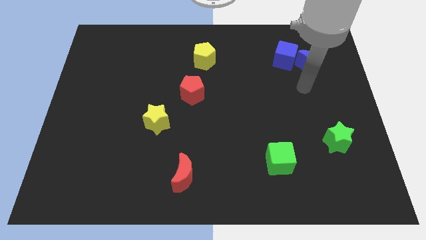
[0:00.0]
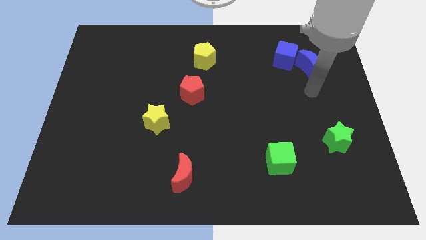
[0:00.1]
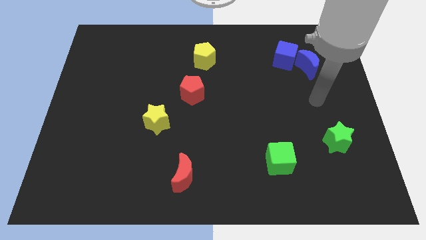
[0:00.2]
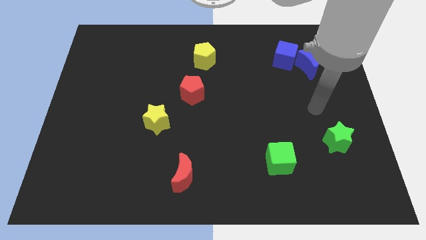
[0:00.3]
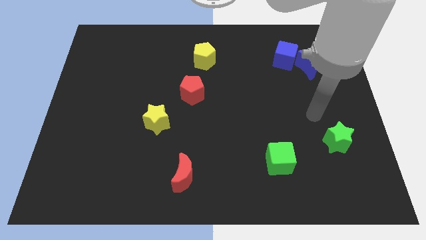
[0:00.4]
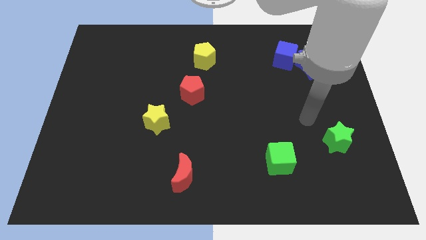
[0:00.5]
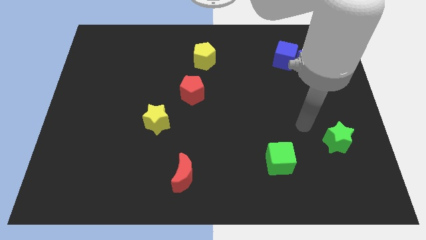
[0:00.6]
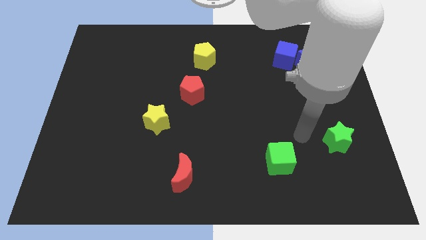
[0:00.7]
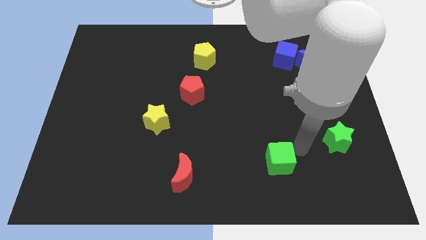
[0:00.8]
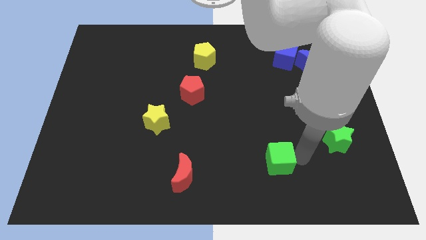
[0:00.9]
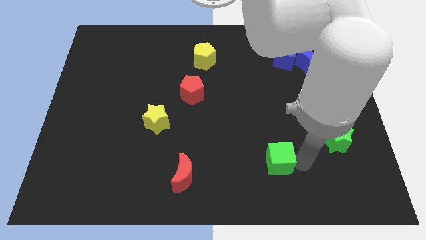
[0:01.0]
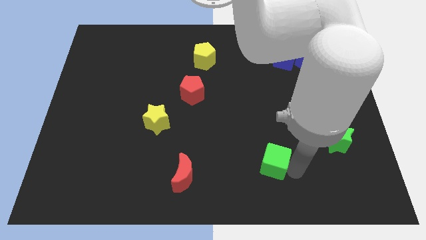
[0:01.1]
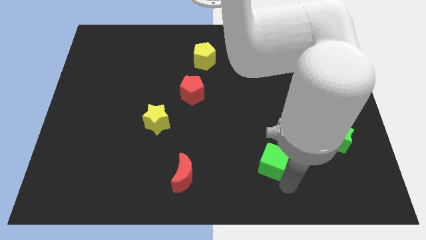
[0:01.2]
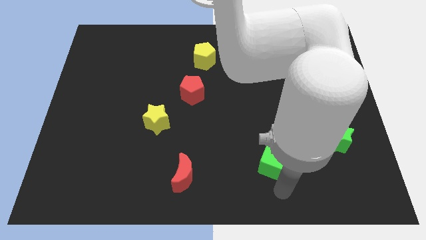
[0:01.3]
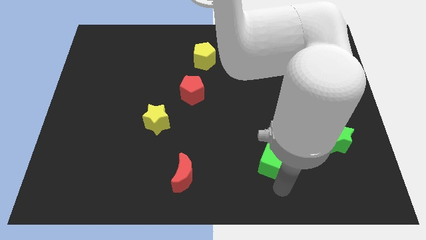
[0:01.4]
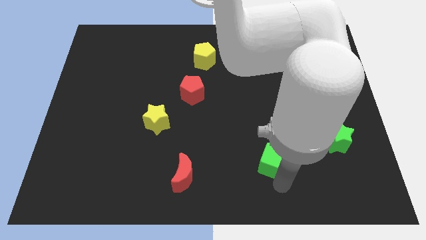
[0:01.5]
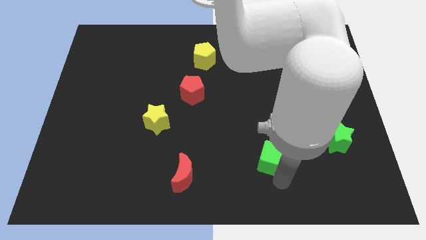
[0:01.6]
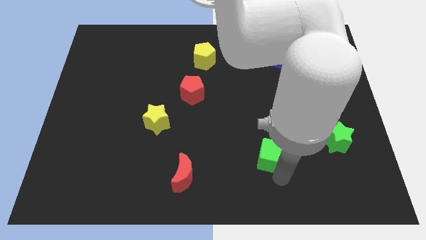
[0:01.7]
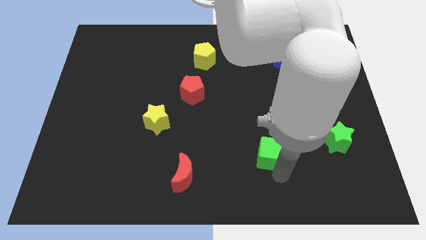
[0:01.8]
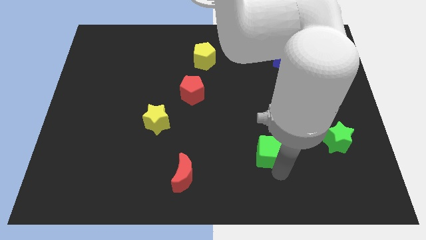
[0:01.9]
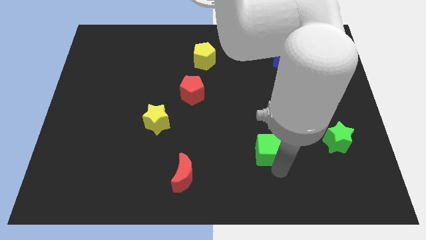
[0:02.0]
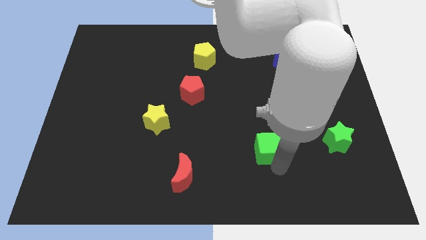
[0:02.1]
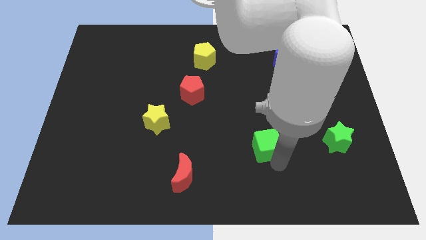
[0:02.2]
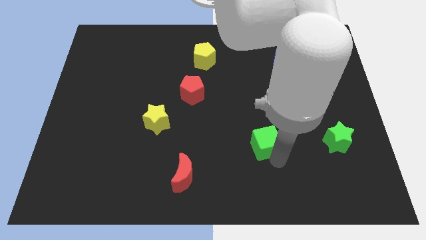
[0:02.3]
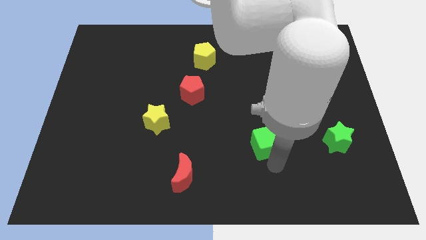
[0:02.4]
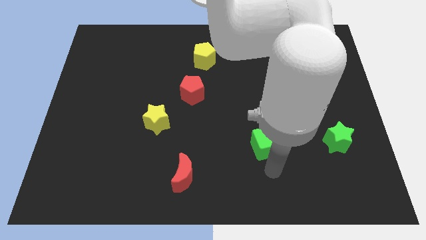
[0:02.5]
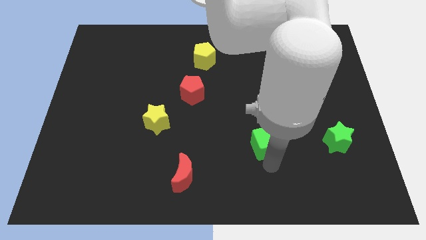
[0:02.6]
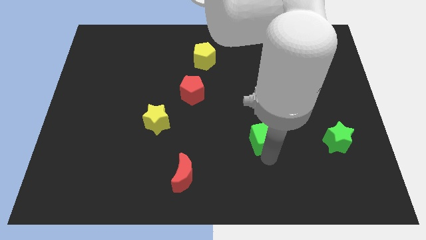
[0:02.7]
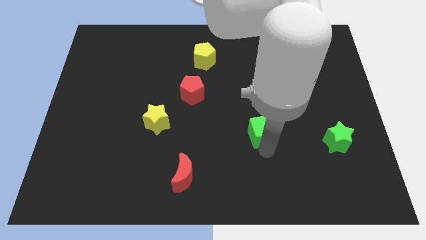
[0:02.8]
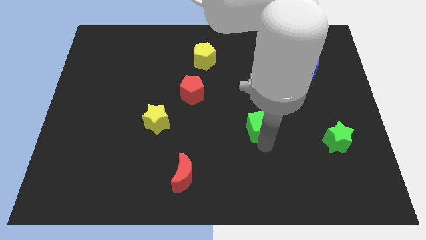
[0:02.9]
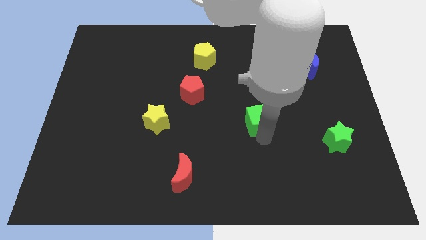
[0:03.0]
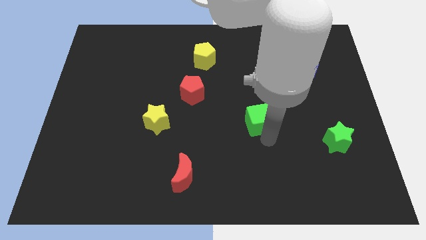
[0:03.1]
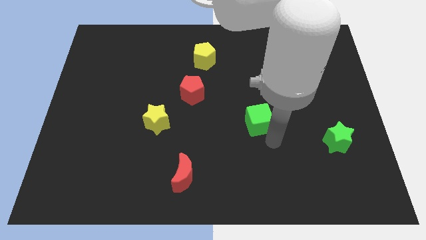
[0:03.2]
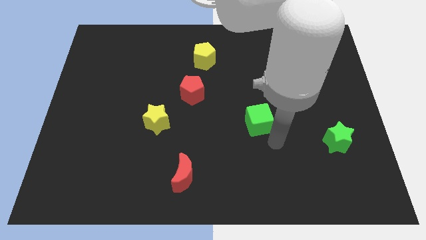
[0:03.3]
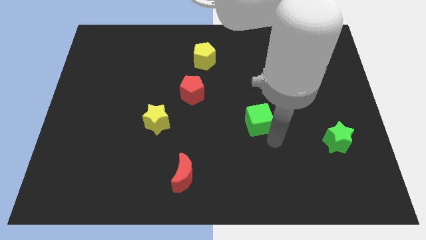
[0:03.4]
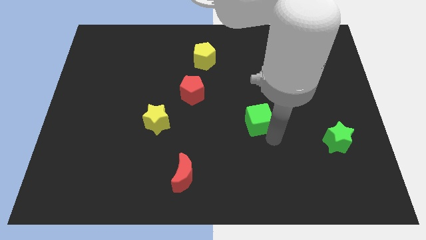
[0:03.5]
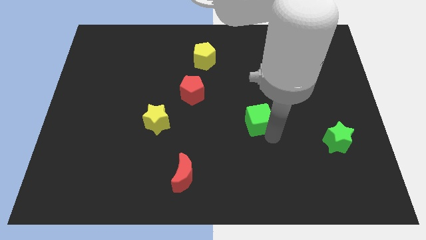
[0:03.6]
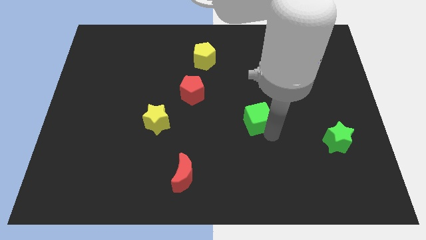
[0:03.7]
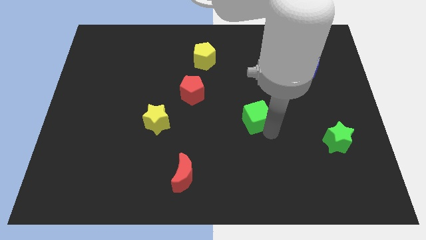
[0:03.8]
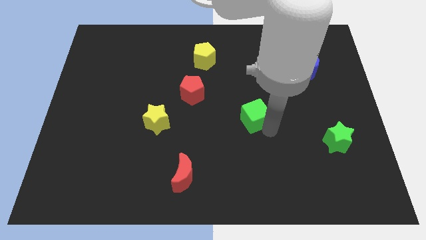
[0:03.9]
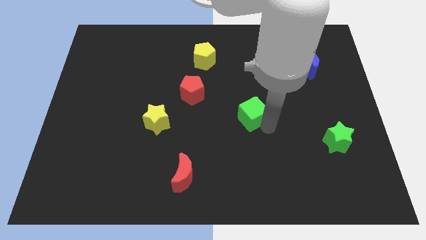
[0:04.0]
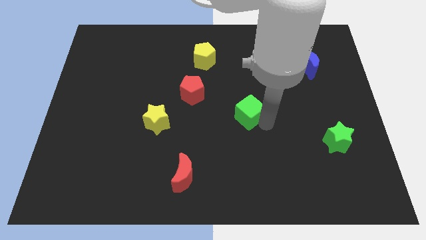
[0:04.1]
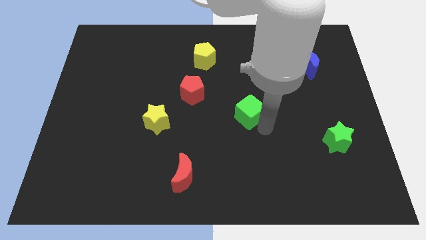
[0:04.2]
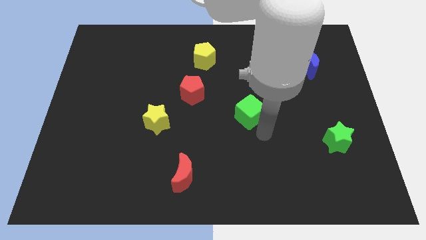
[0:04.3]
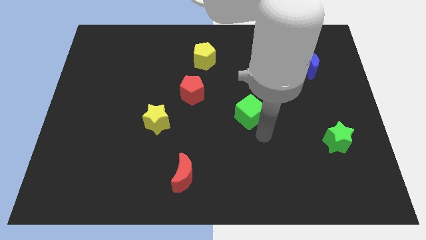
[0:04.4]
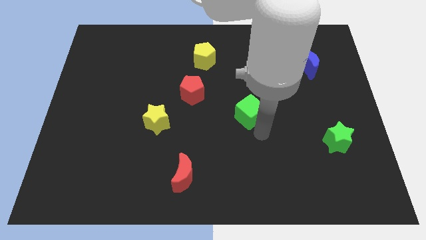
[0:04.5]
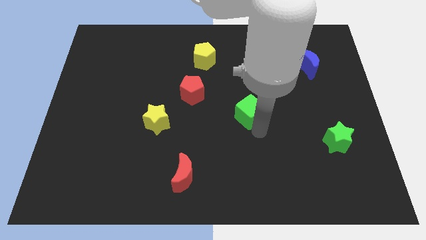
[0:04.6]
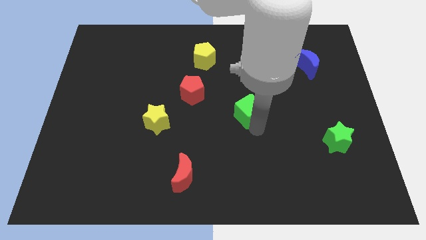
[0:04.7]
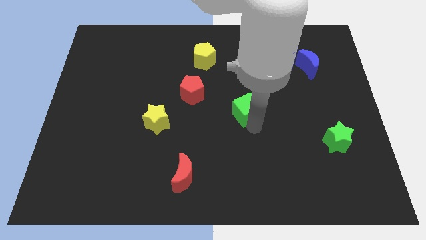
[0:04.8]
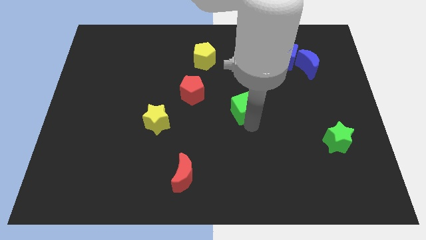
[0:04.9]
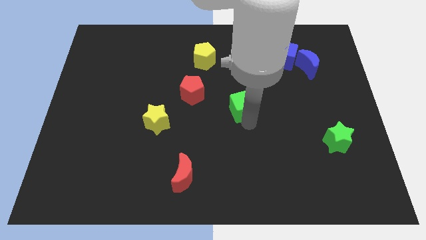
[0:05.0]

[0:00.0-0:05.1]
move the green cube right of the red pentagon

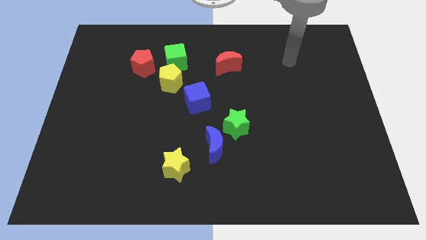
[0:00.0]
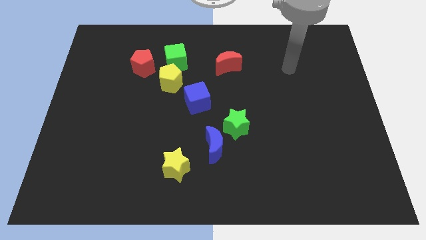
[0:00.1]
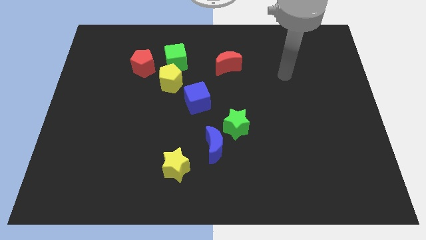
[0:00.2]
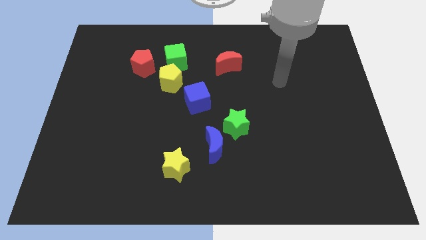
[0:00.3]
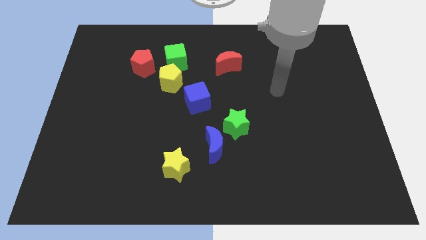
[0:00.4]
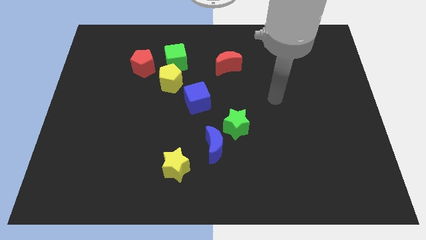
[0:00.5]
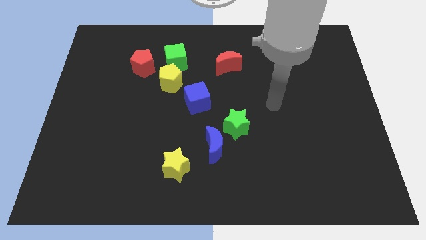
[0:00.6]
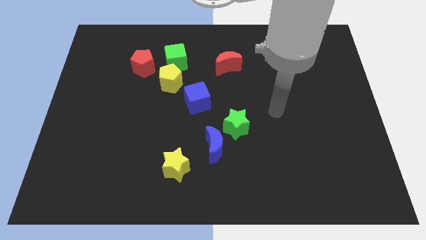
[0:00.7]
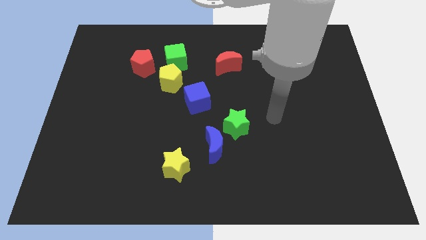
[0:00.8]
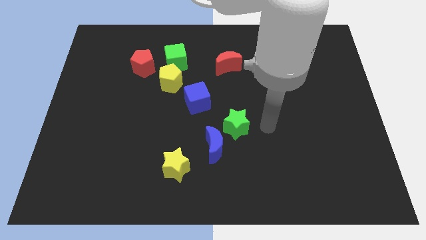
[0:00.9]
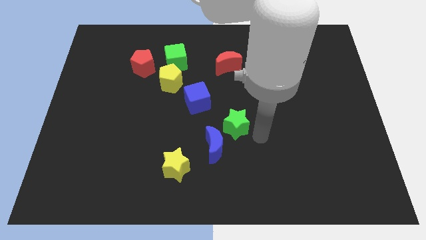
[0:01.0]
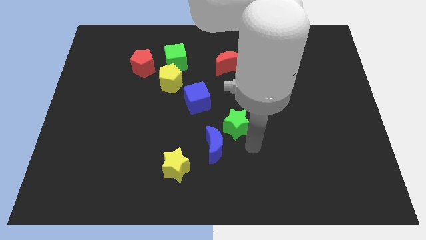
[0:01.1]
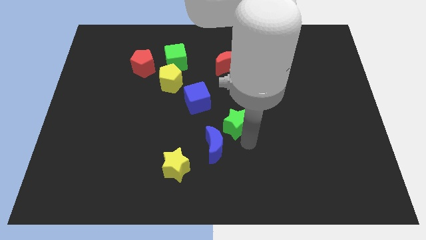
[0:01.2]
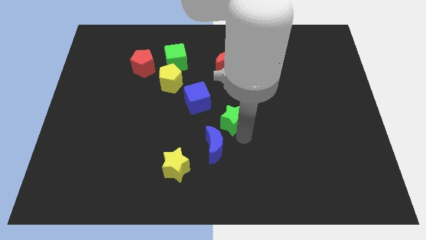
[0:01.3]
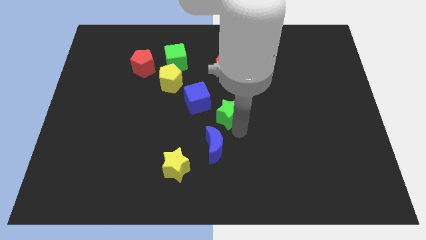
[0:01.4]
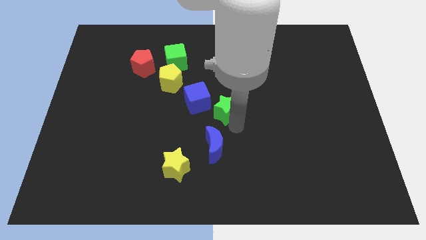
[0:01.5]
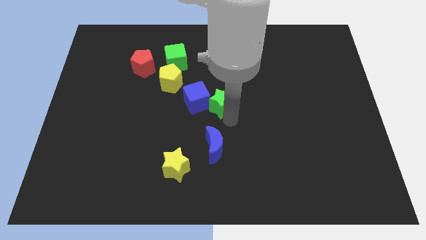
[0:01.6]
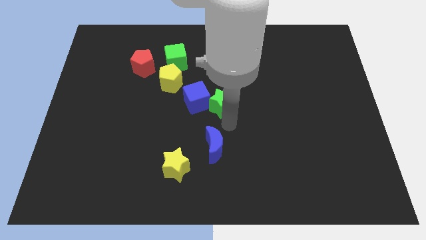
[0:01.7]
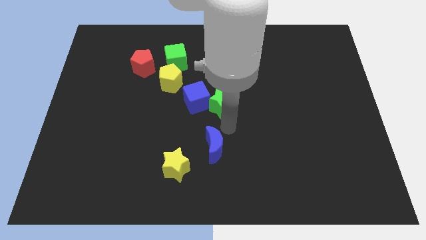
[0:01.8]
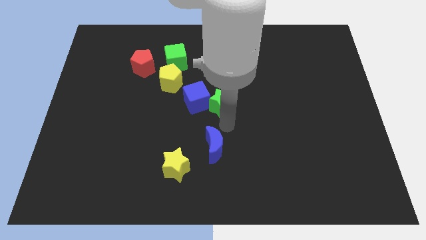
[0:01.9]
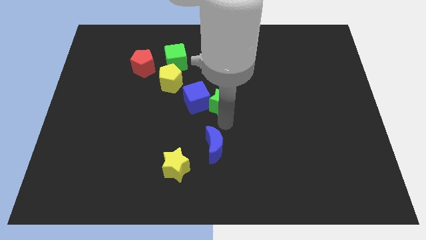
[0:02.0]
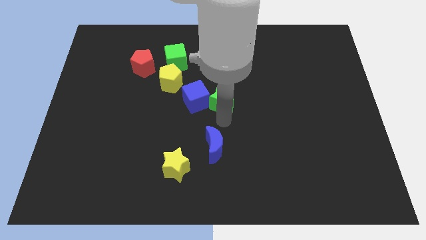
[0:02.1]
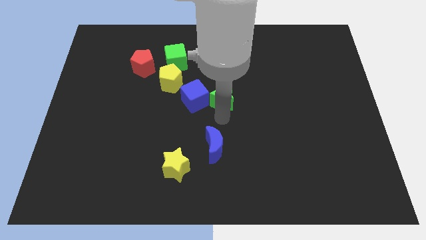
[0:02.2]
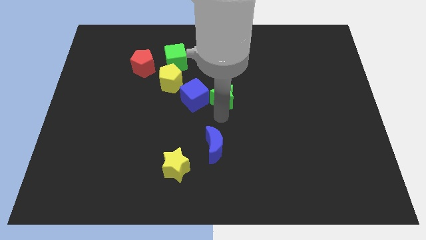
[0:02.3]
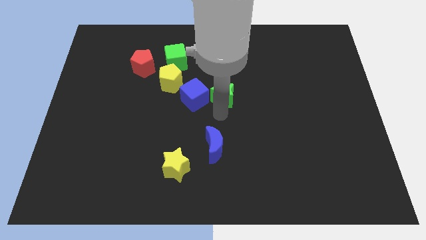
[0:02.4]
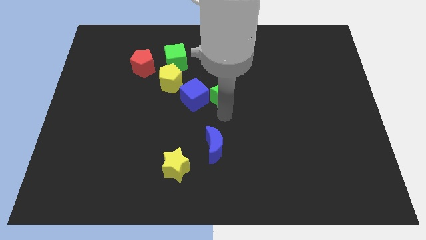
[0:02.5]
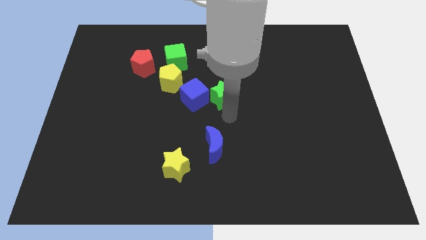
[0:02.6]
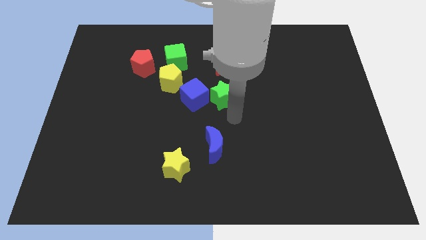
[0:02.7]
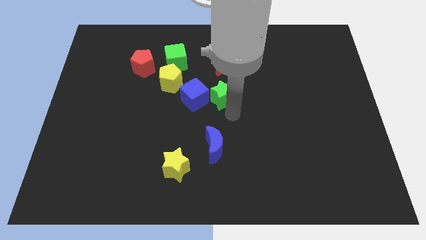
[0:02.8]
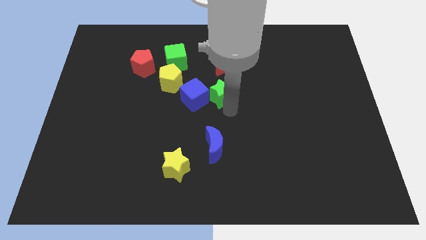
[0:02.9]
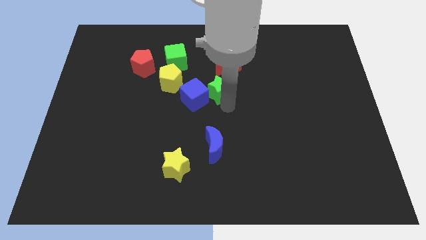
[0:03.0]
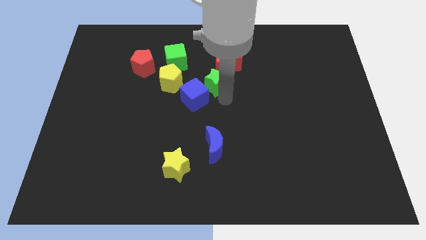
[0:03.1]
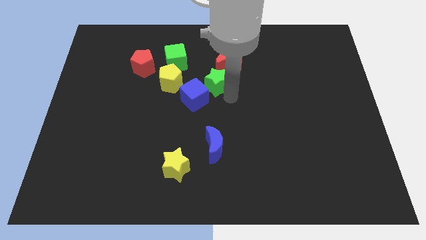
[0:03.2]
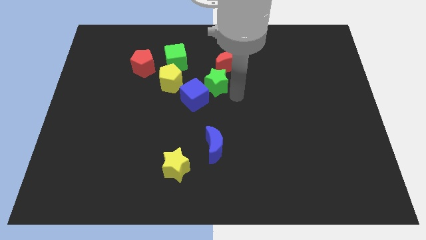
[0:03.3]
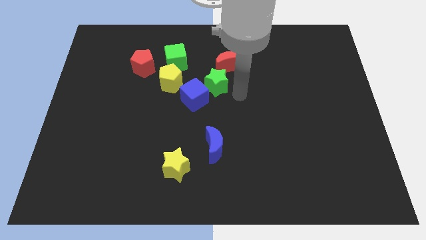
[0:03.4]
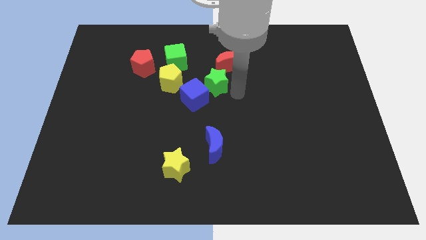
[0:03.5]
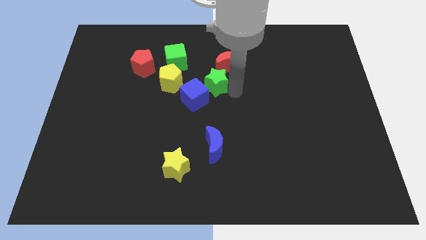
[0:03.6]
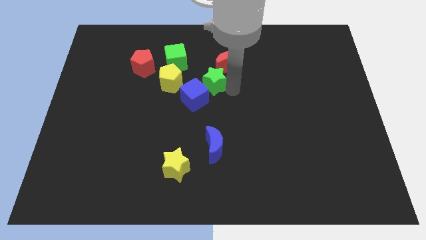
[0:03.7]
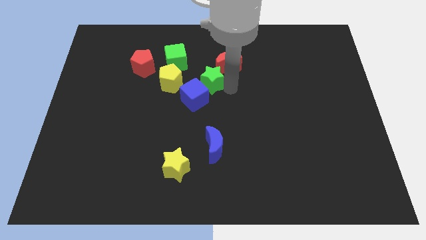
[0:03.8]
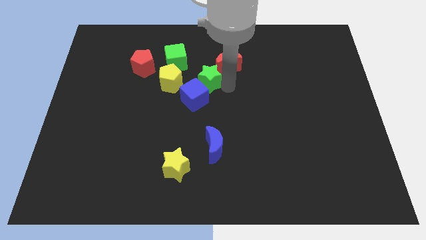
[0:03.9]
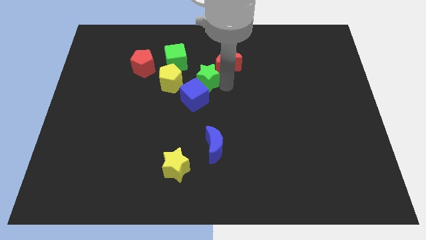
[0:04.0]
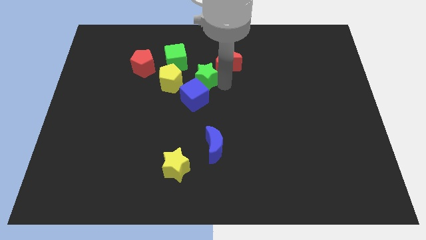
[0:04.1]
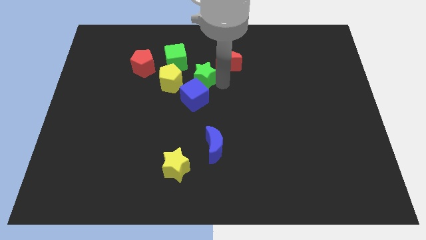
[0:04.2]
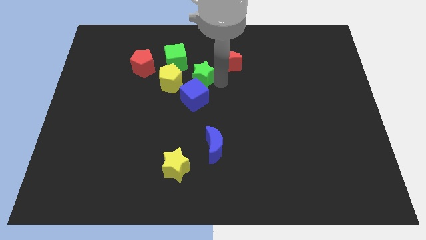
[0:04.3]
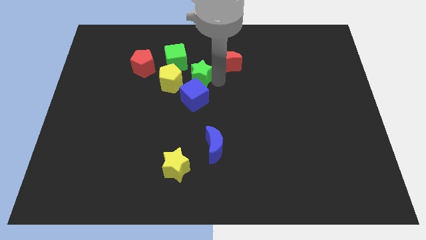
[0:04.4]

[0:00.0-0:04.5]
move the green star to the right of the red pentagon
